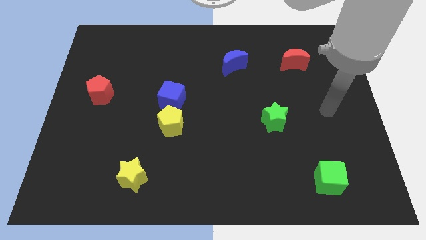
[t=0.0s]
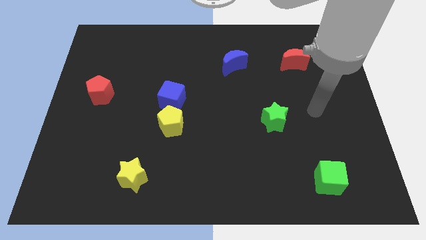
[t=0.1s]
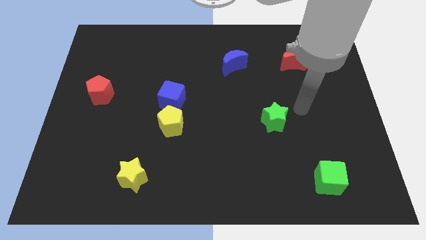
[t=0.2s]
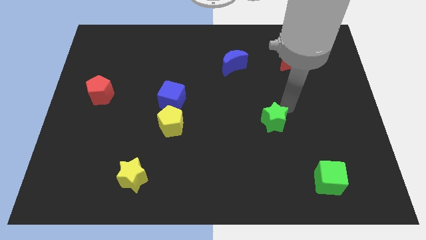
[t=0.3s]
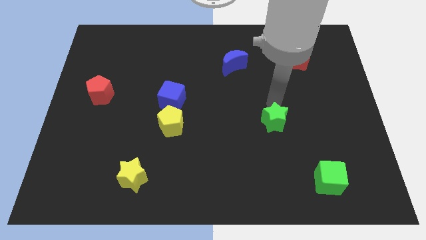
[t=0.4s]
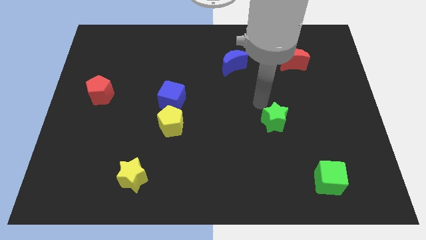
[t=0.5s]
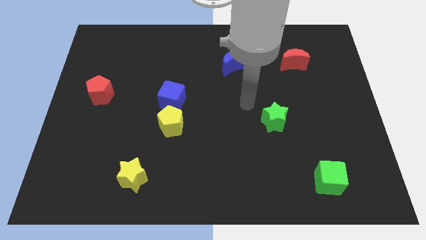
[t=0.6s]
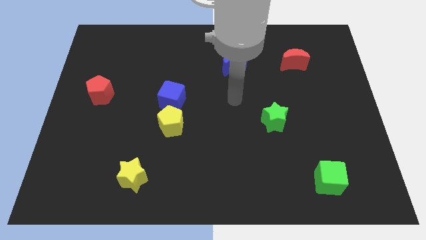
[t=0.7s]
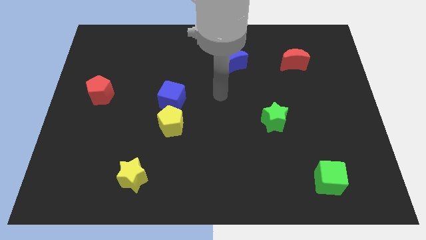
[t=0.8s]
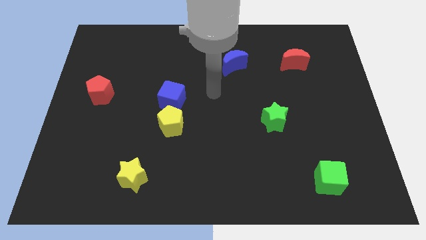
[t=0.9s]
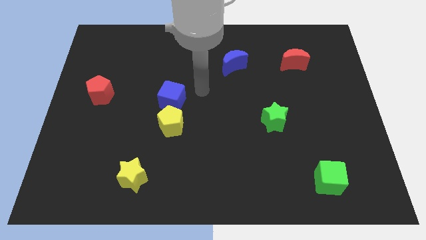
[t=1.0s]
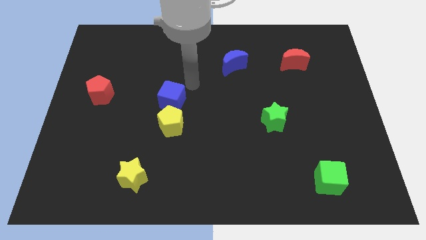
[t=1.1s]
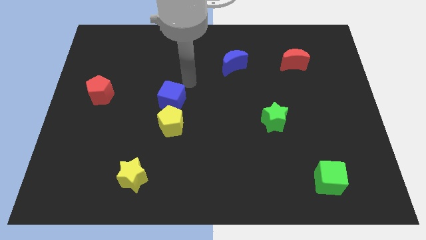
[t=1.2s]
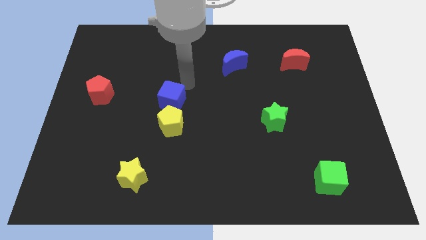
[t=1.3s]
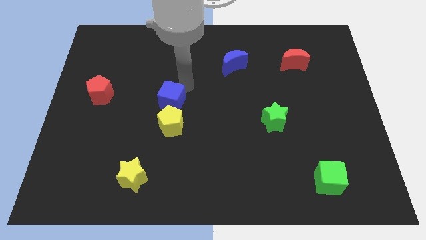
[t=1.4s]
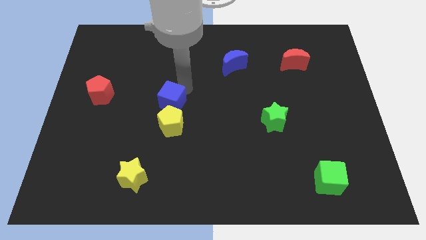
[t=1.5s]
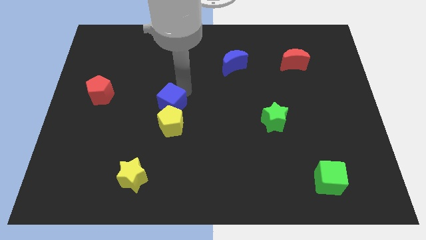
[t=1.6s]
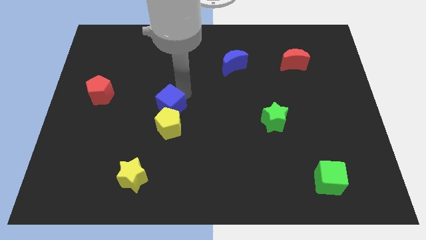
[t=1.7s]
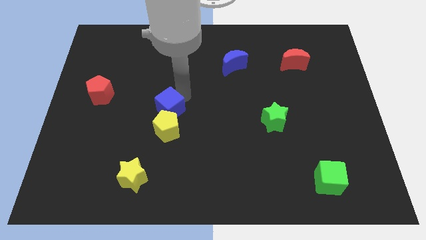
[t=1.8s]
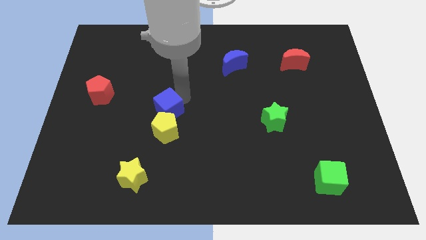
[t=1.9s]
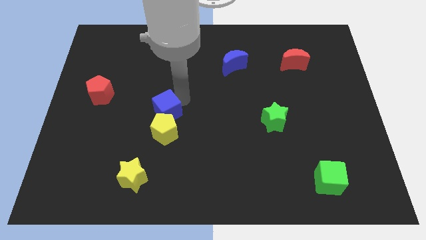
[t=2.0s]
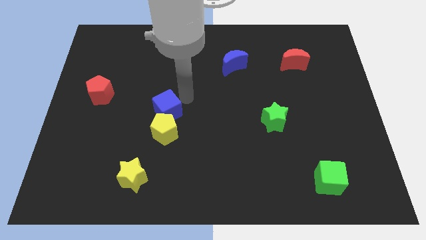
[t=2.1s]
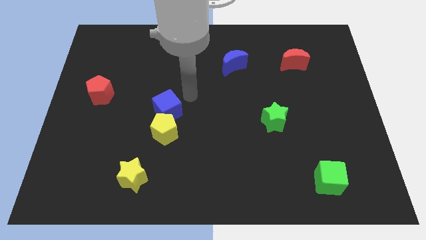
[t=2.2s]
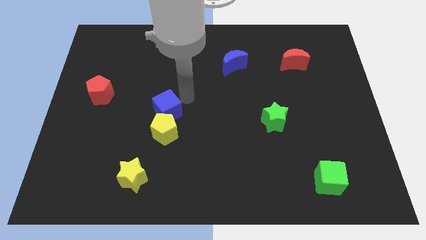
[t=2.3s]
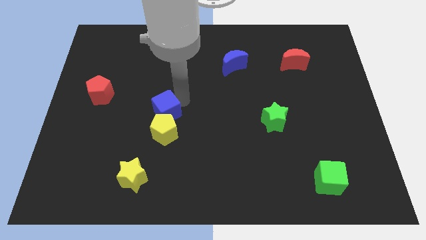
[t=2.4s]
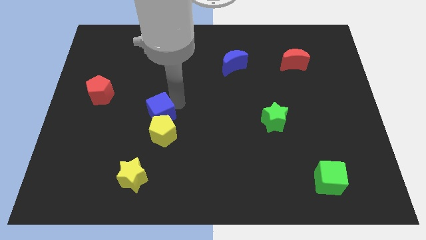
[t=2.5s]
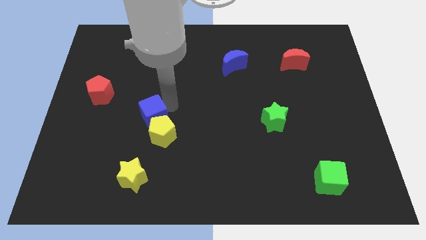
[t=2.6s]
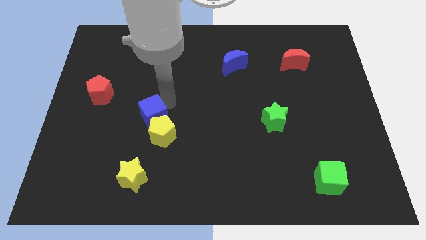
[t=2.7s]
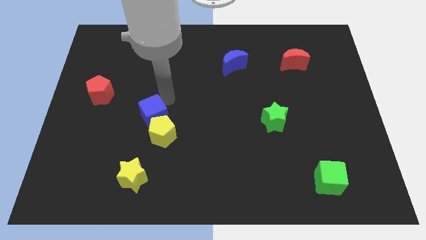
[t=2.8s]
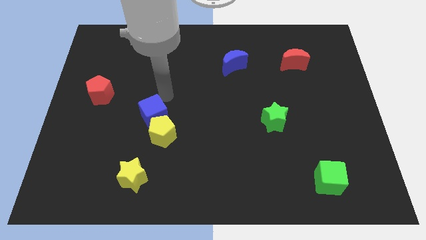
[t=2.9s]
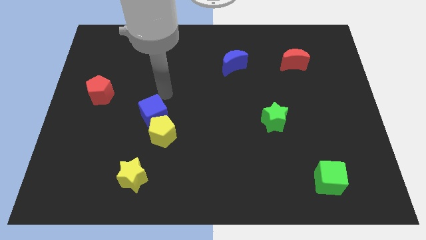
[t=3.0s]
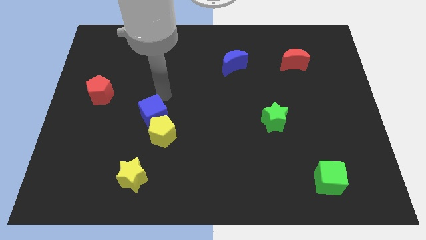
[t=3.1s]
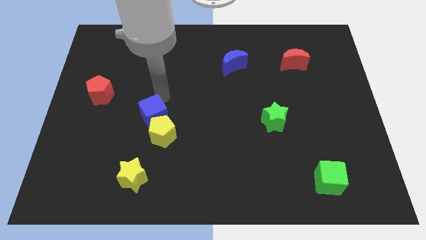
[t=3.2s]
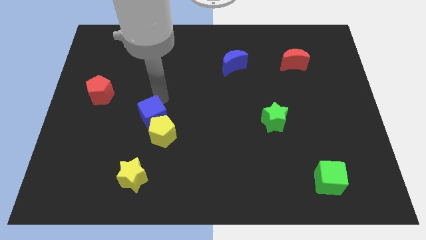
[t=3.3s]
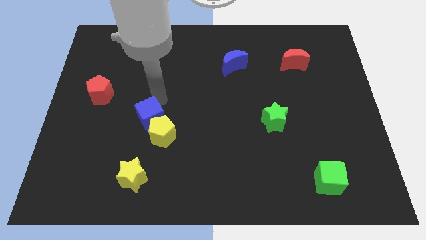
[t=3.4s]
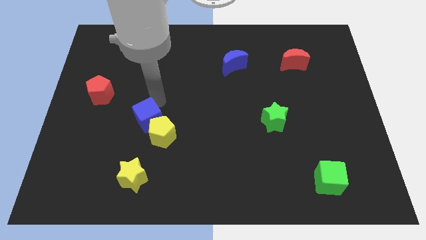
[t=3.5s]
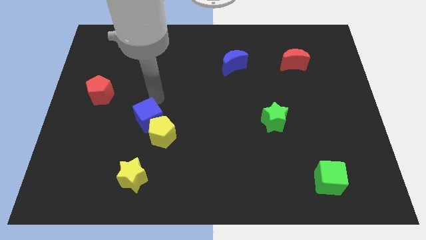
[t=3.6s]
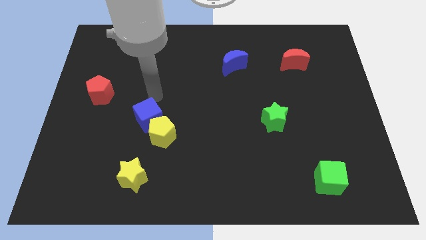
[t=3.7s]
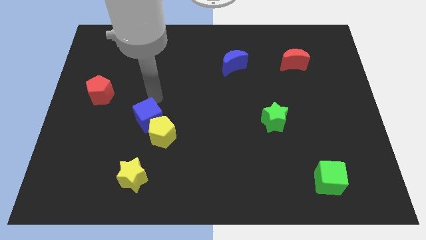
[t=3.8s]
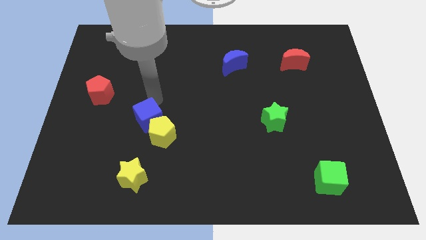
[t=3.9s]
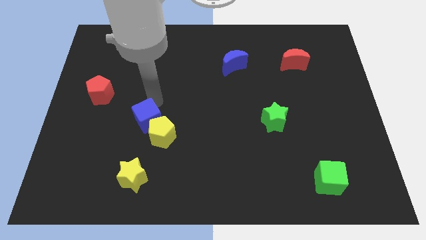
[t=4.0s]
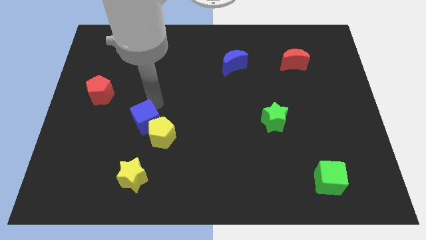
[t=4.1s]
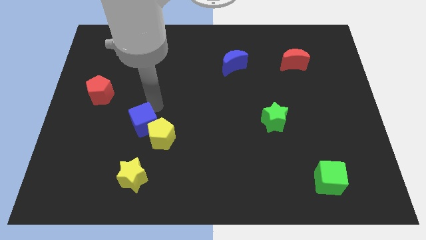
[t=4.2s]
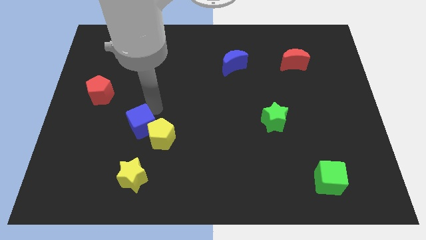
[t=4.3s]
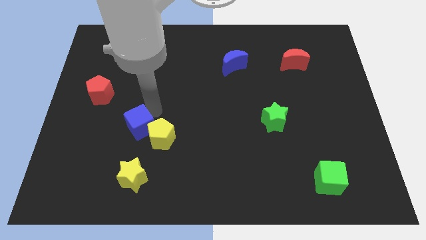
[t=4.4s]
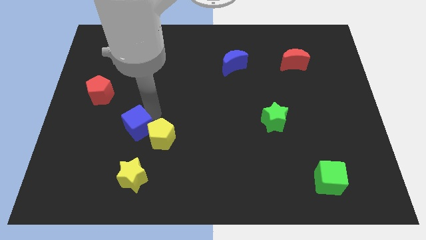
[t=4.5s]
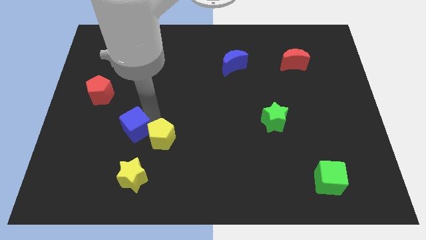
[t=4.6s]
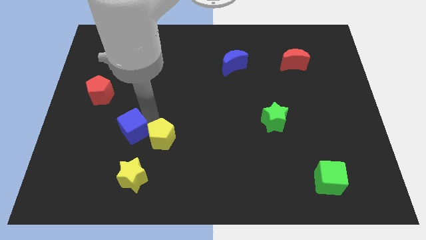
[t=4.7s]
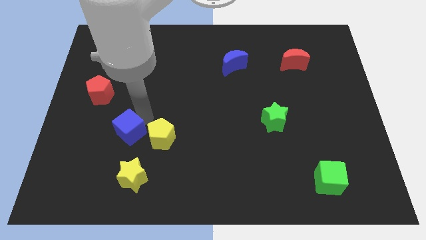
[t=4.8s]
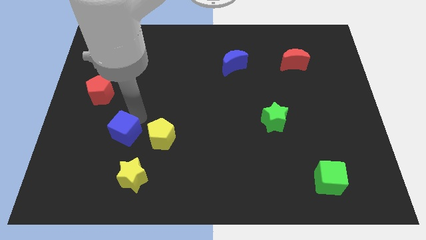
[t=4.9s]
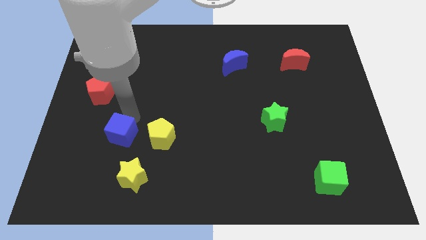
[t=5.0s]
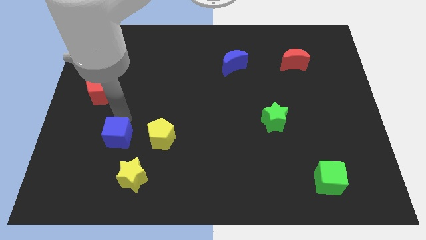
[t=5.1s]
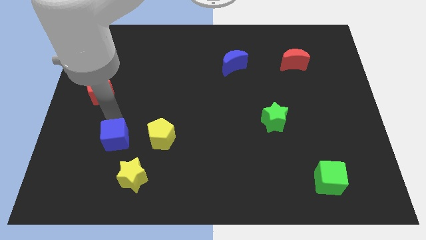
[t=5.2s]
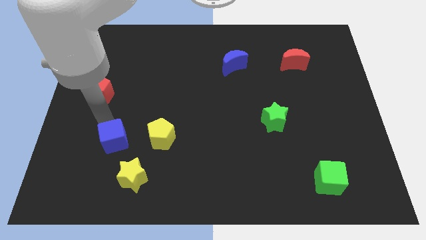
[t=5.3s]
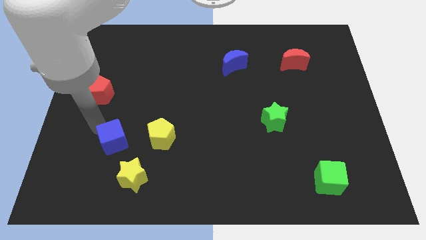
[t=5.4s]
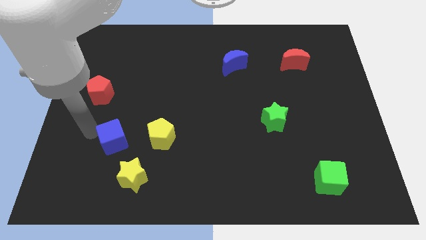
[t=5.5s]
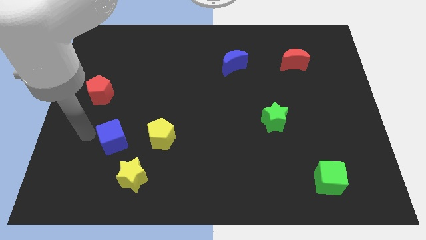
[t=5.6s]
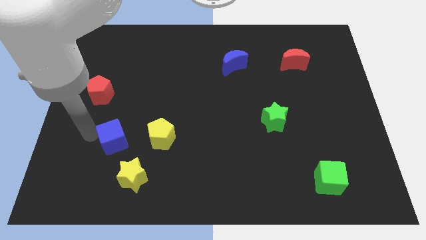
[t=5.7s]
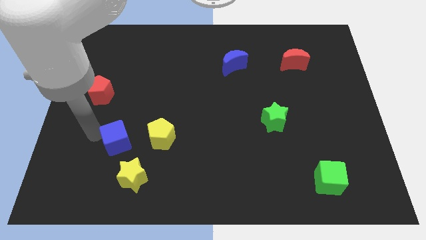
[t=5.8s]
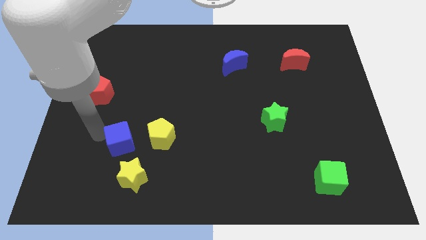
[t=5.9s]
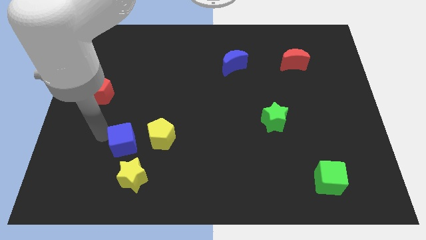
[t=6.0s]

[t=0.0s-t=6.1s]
slide the blue cube a little downwards

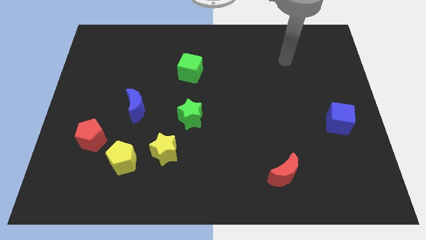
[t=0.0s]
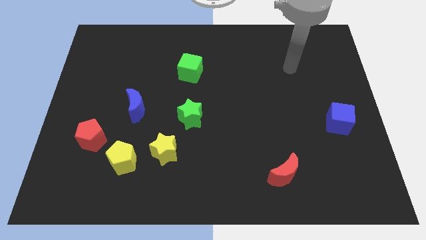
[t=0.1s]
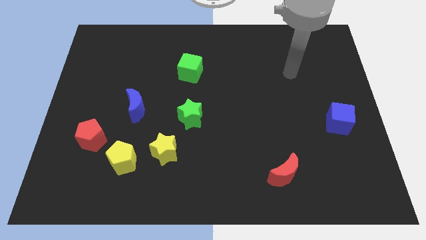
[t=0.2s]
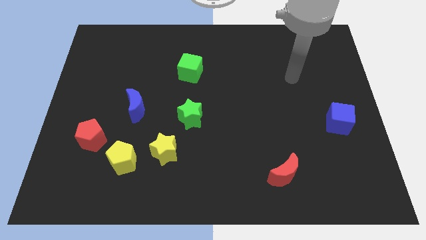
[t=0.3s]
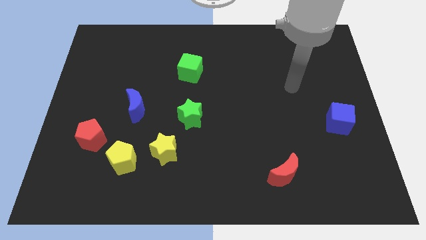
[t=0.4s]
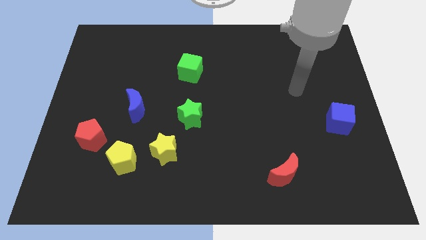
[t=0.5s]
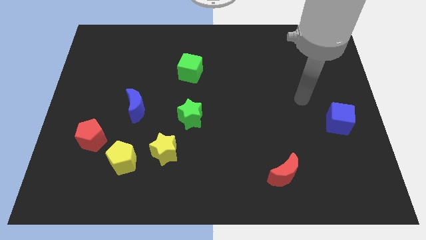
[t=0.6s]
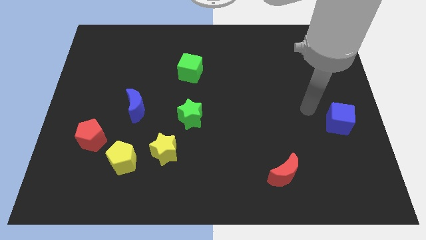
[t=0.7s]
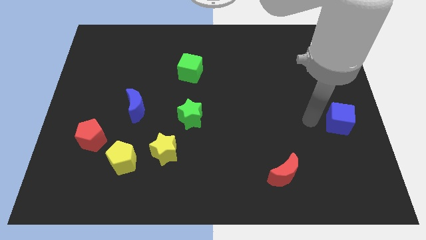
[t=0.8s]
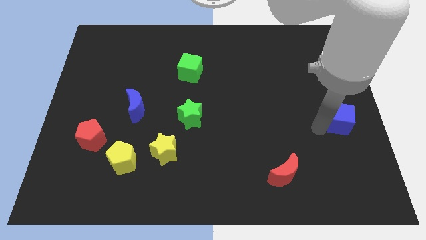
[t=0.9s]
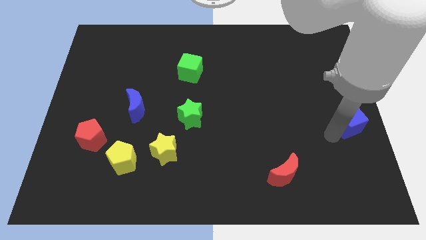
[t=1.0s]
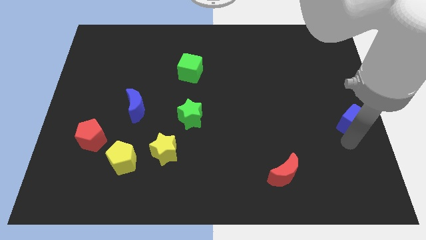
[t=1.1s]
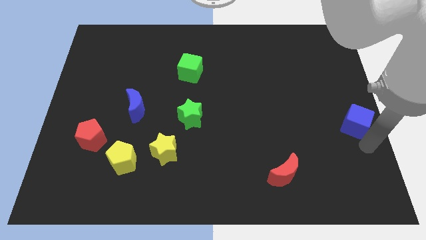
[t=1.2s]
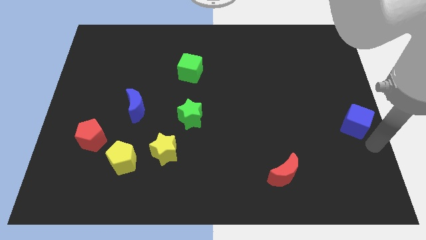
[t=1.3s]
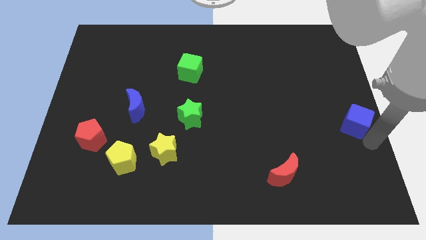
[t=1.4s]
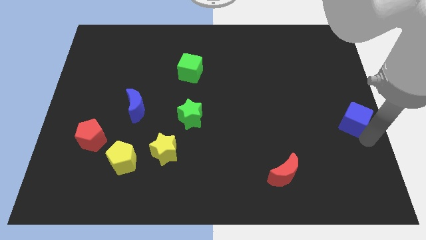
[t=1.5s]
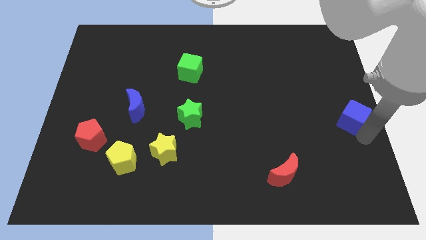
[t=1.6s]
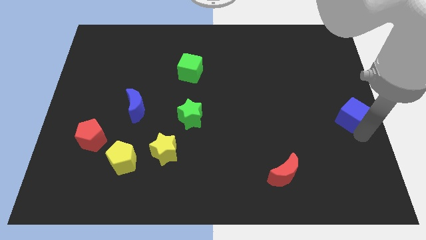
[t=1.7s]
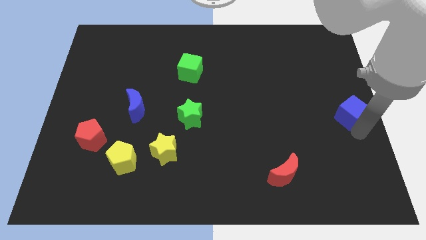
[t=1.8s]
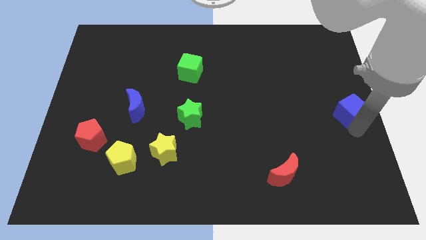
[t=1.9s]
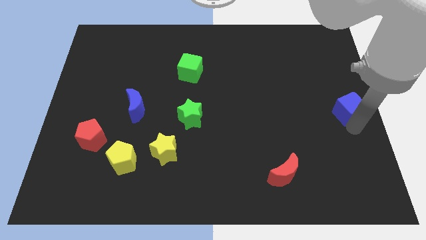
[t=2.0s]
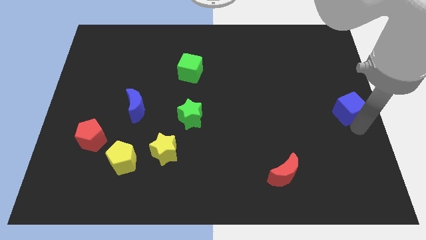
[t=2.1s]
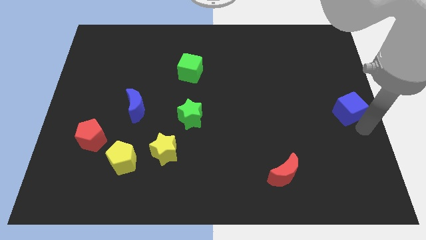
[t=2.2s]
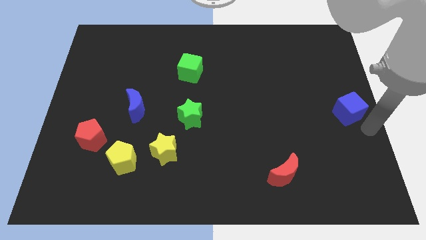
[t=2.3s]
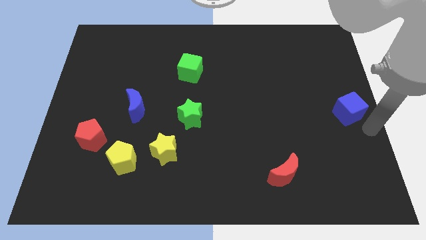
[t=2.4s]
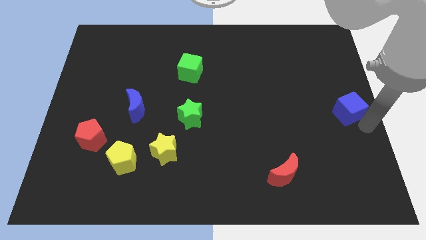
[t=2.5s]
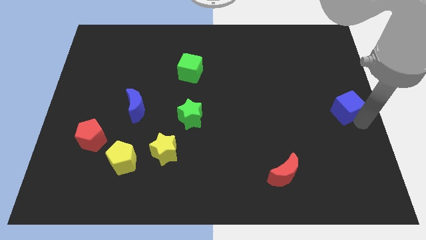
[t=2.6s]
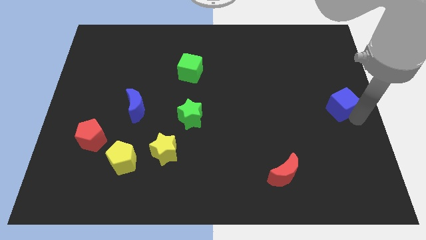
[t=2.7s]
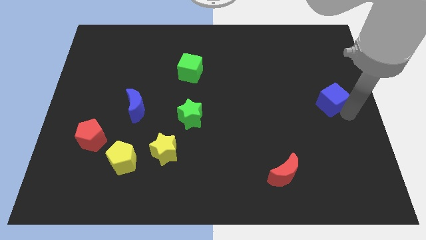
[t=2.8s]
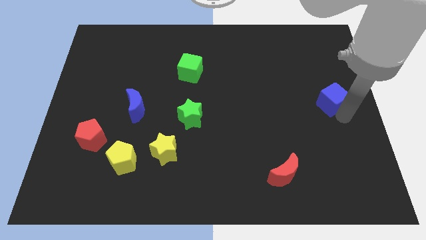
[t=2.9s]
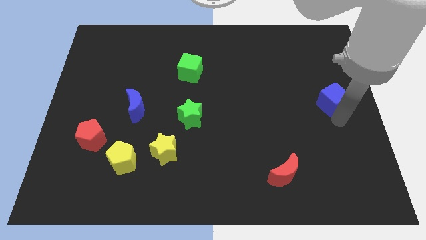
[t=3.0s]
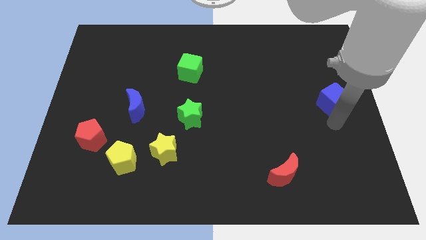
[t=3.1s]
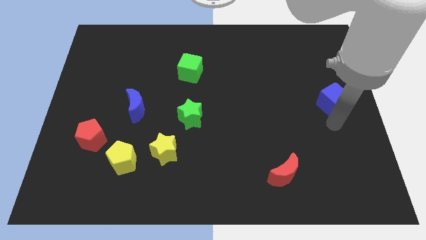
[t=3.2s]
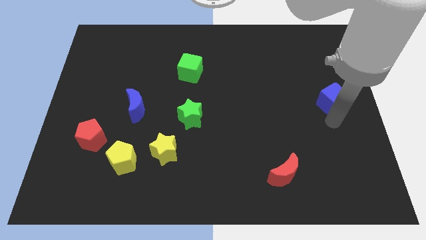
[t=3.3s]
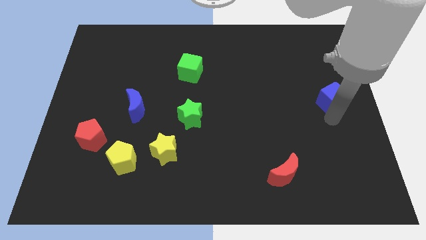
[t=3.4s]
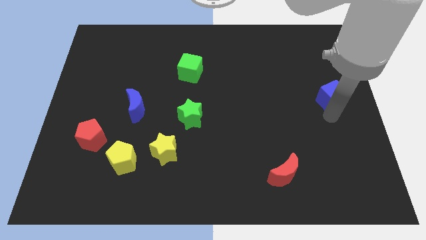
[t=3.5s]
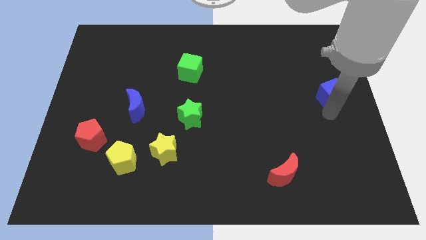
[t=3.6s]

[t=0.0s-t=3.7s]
slightly move the blue cube up
